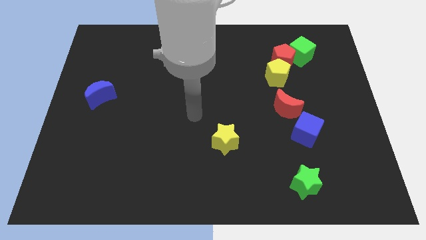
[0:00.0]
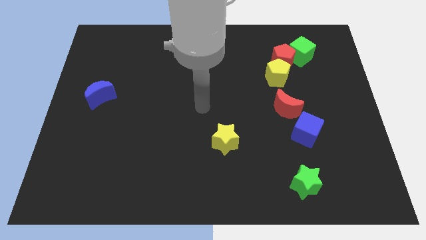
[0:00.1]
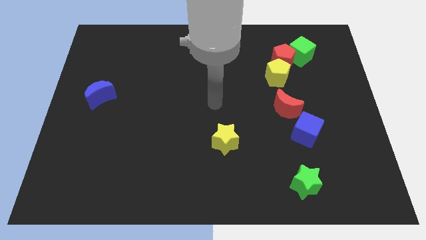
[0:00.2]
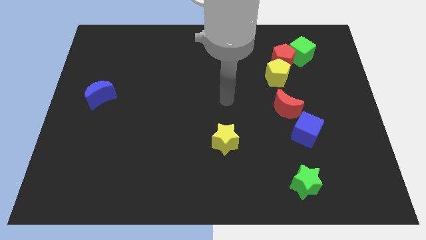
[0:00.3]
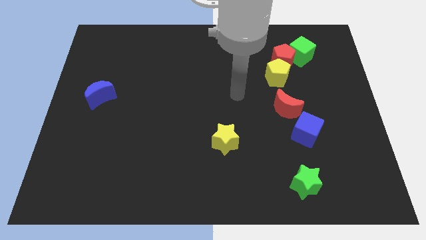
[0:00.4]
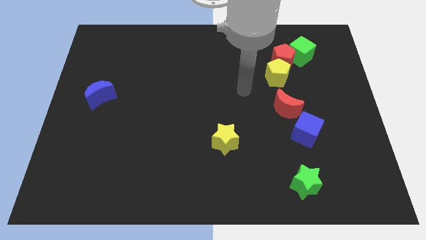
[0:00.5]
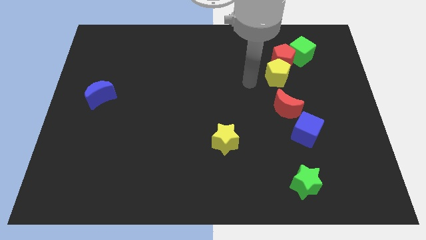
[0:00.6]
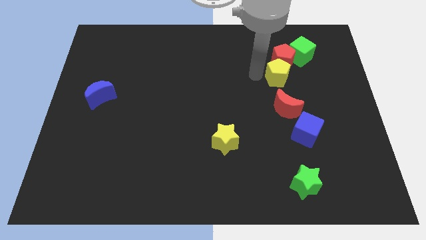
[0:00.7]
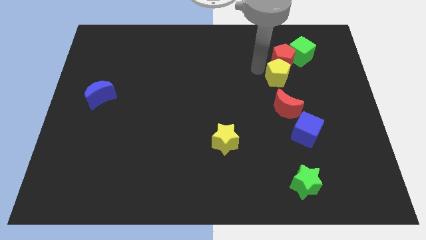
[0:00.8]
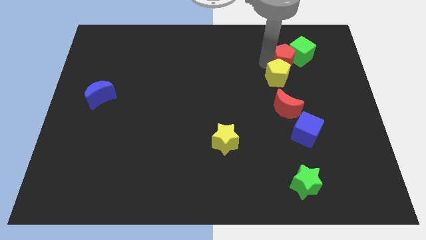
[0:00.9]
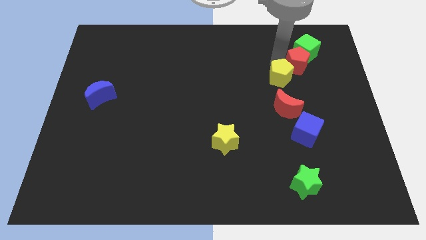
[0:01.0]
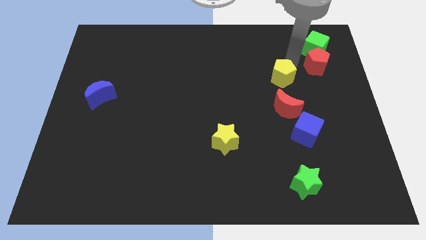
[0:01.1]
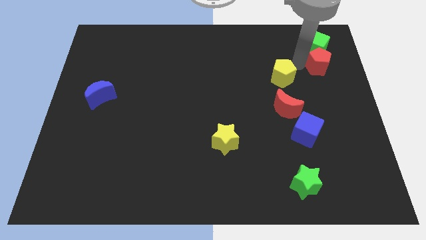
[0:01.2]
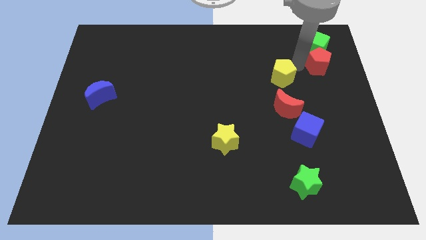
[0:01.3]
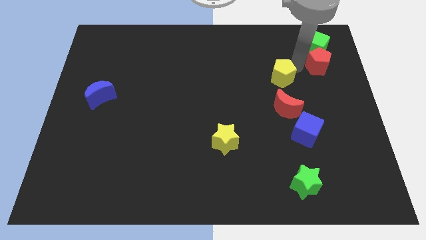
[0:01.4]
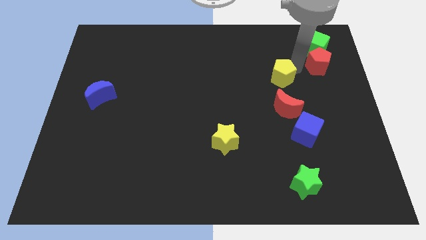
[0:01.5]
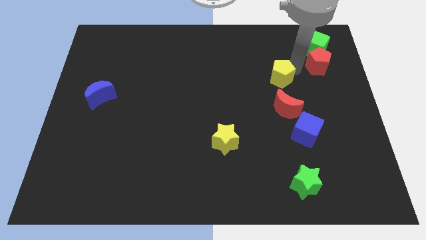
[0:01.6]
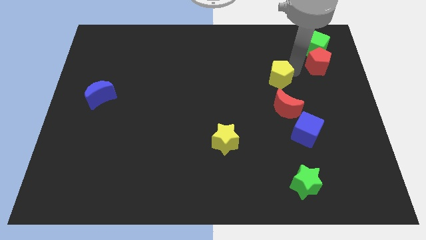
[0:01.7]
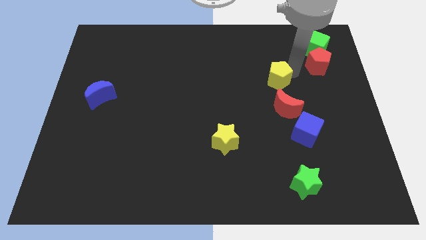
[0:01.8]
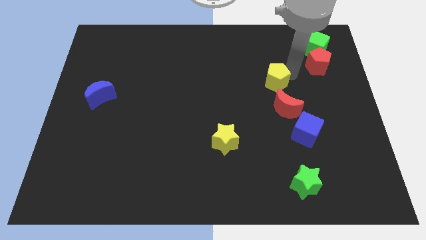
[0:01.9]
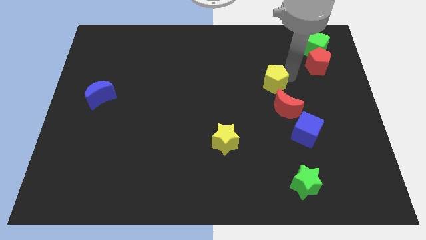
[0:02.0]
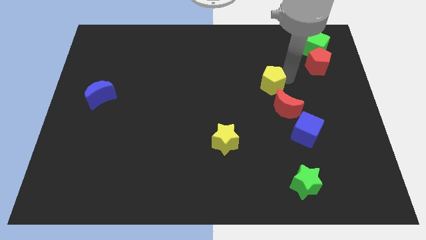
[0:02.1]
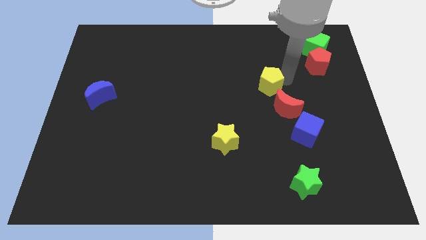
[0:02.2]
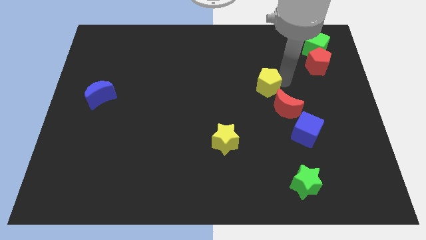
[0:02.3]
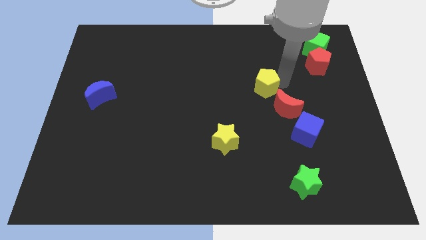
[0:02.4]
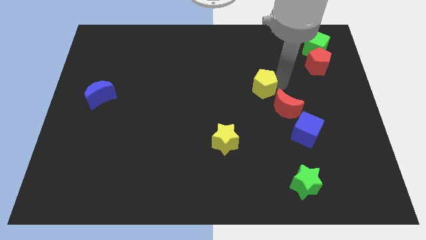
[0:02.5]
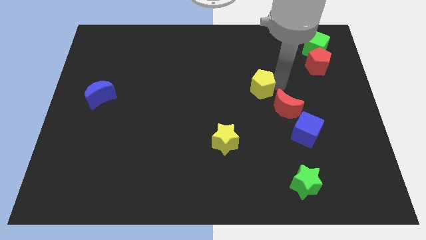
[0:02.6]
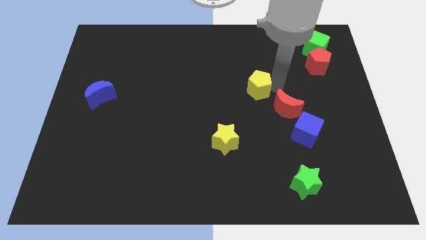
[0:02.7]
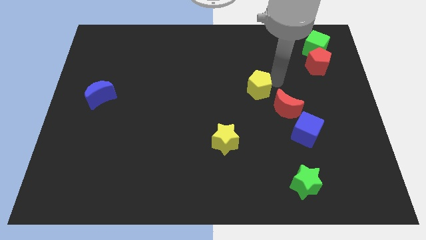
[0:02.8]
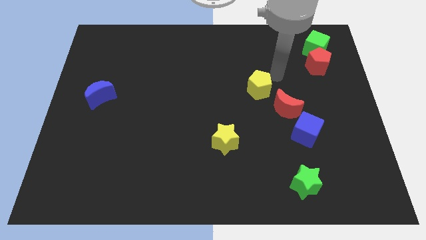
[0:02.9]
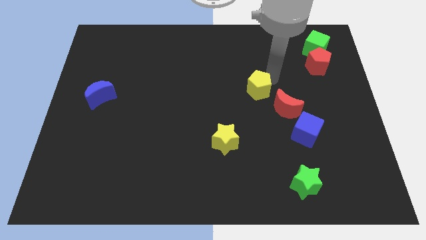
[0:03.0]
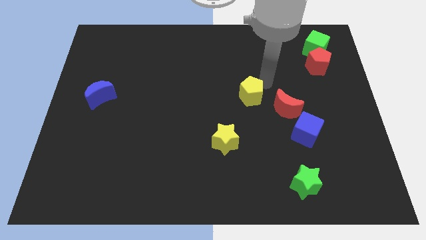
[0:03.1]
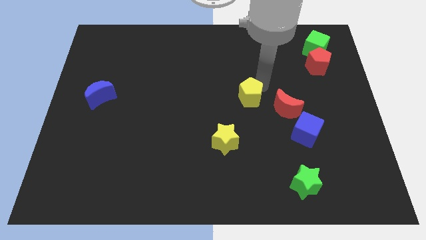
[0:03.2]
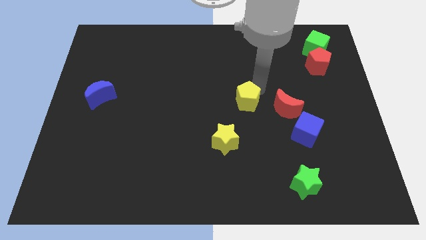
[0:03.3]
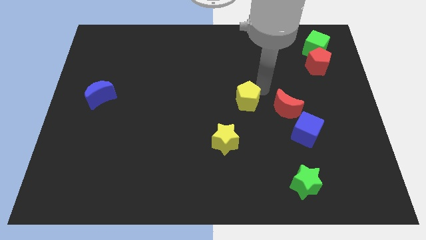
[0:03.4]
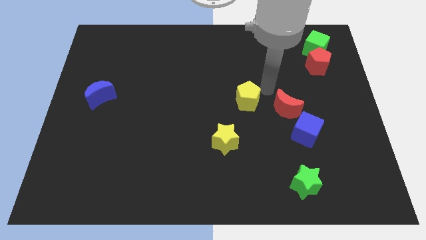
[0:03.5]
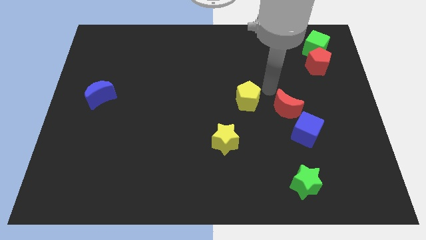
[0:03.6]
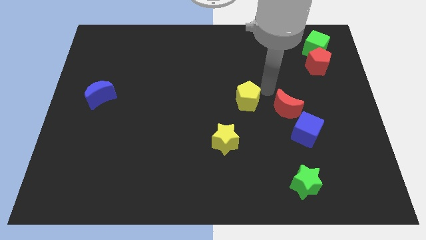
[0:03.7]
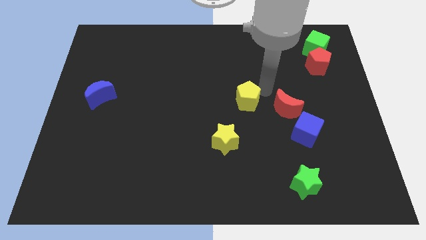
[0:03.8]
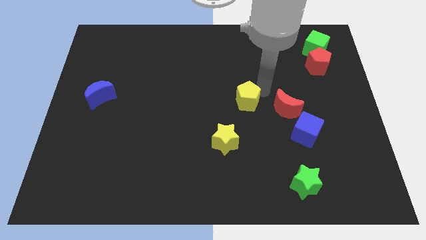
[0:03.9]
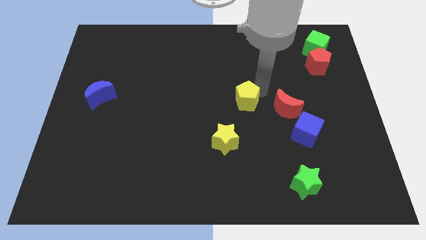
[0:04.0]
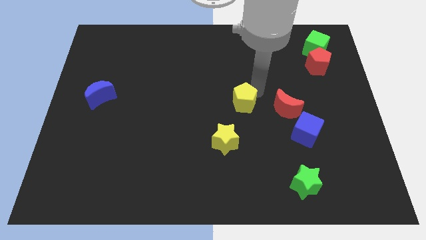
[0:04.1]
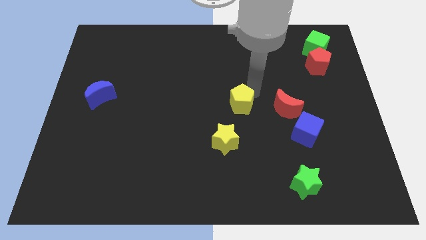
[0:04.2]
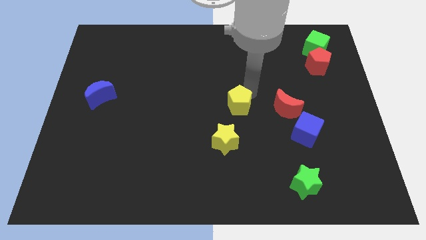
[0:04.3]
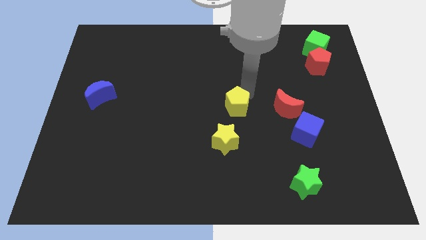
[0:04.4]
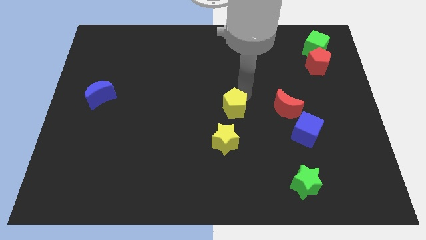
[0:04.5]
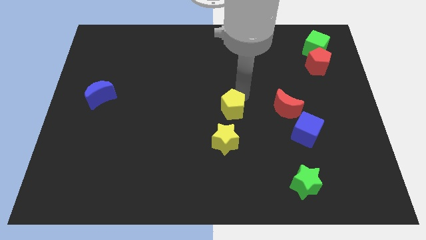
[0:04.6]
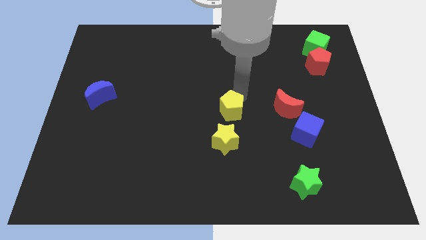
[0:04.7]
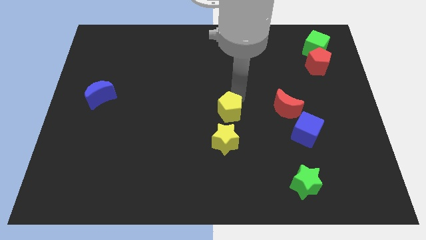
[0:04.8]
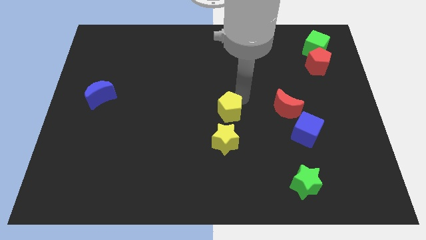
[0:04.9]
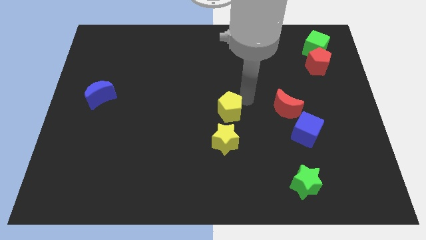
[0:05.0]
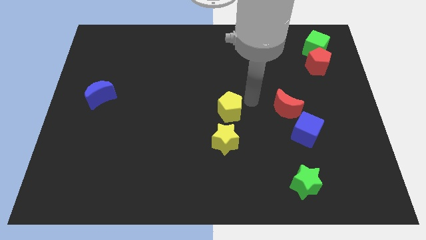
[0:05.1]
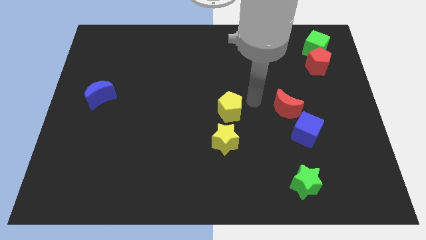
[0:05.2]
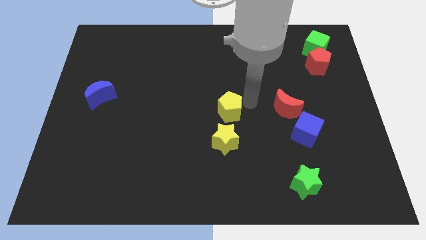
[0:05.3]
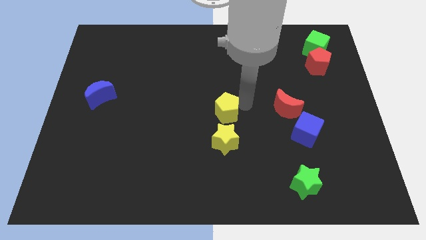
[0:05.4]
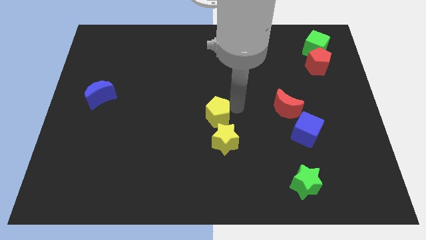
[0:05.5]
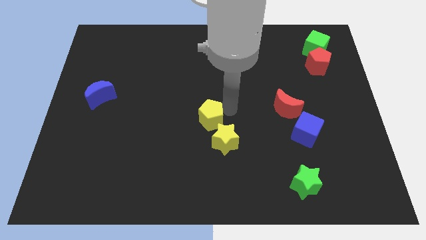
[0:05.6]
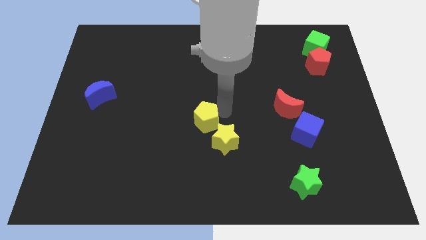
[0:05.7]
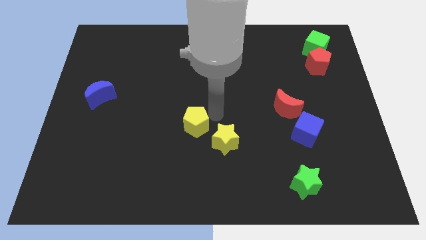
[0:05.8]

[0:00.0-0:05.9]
put the yellow pentagon to the left of the yellow star

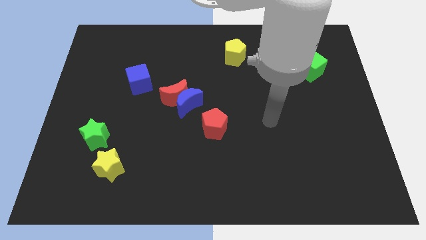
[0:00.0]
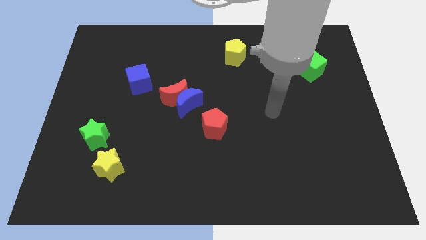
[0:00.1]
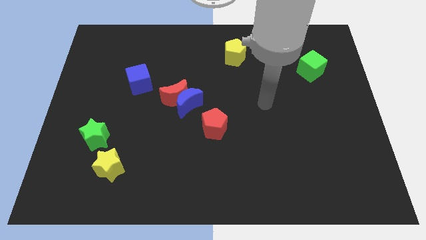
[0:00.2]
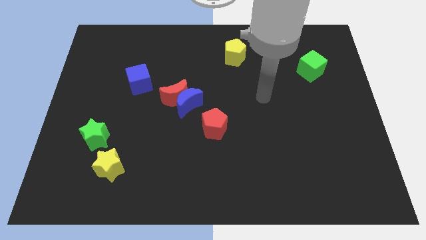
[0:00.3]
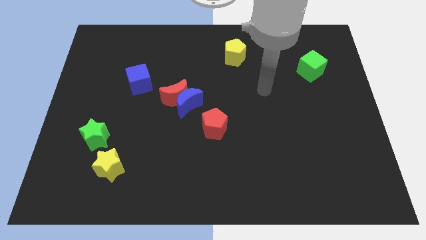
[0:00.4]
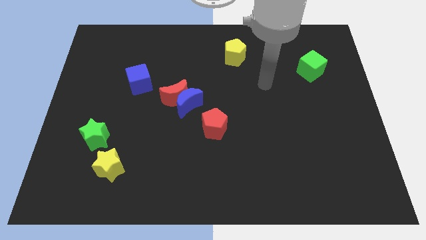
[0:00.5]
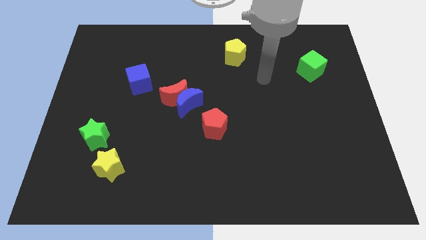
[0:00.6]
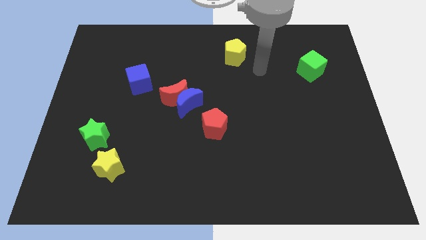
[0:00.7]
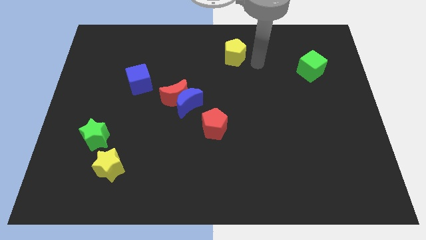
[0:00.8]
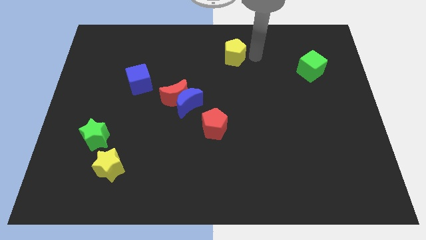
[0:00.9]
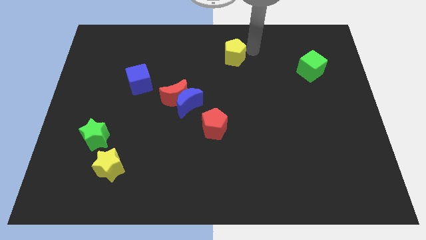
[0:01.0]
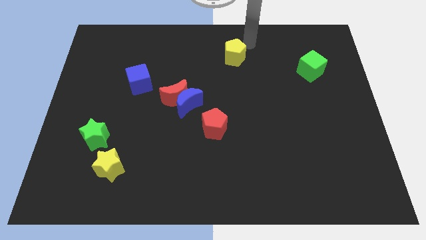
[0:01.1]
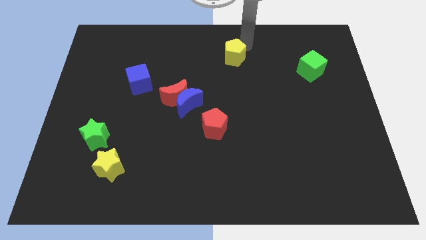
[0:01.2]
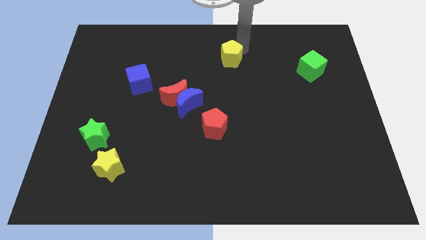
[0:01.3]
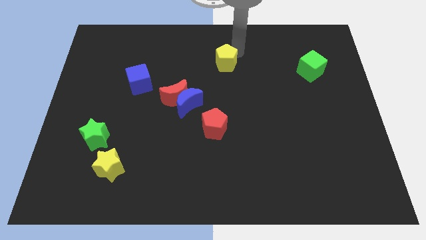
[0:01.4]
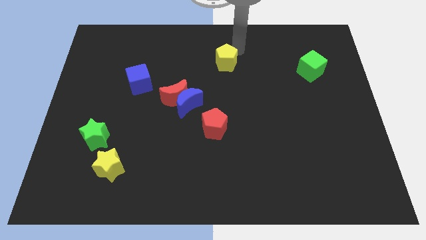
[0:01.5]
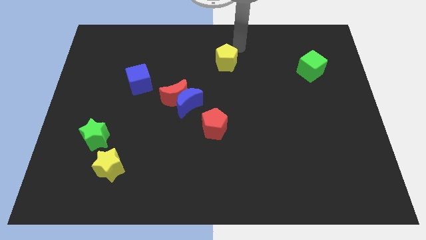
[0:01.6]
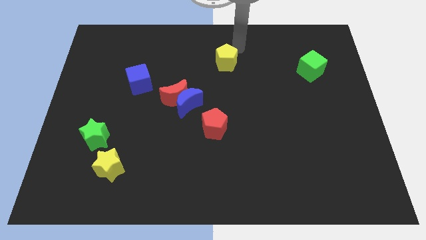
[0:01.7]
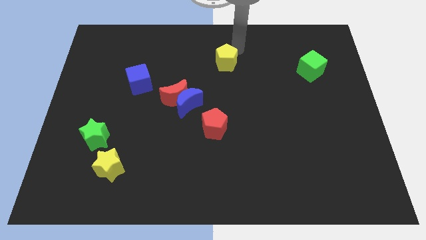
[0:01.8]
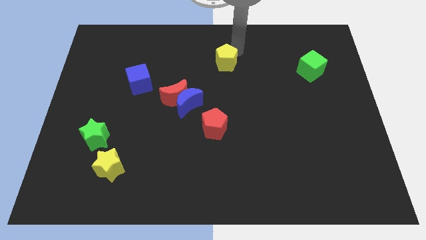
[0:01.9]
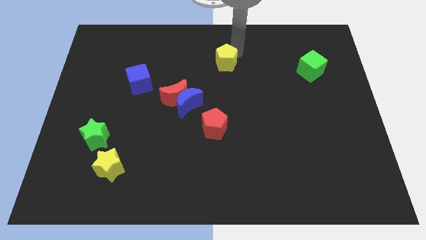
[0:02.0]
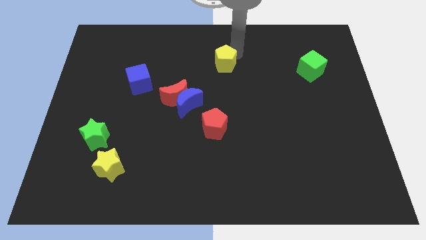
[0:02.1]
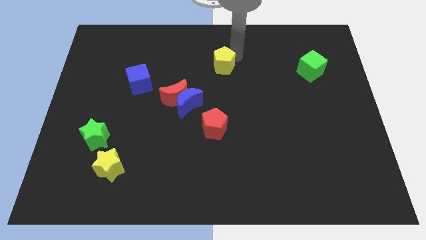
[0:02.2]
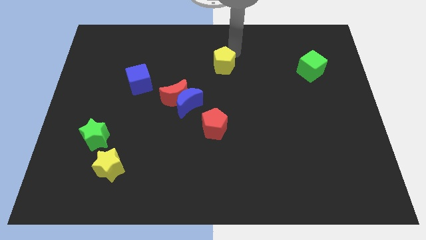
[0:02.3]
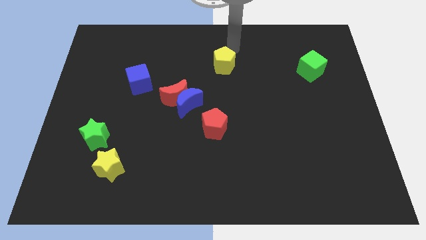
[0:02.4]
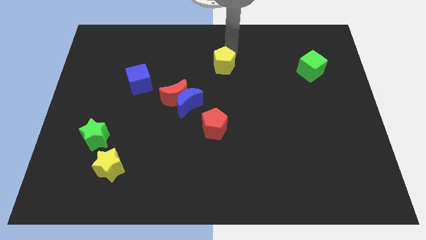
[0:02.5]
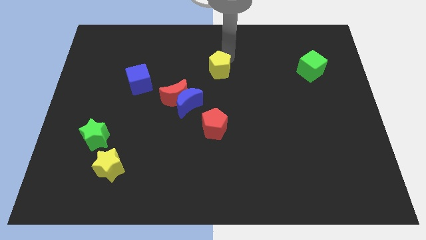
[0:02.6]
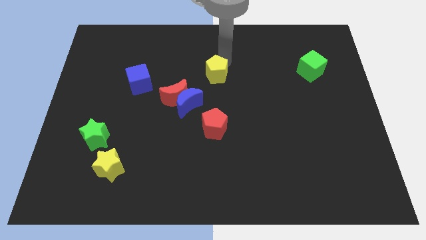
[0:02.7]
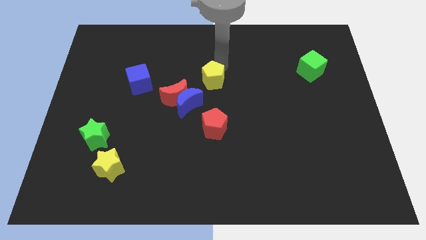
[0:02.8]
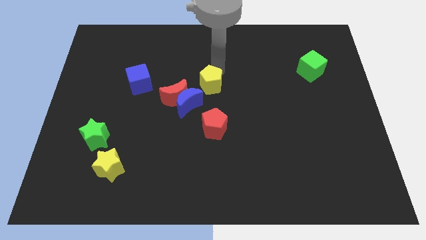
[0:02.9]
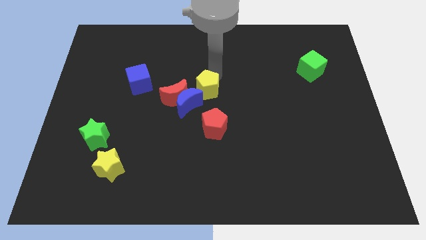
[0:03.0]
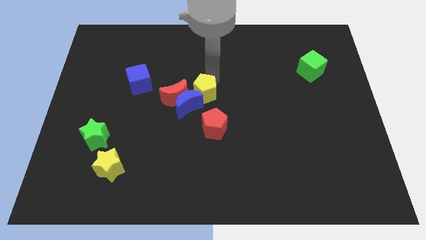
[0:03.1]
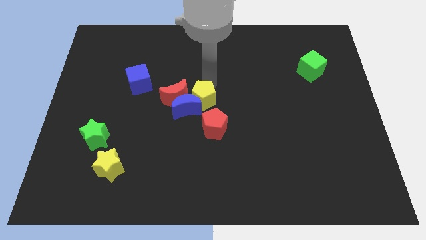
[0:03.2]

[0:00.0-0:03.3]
move the yellow pentagon to the bottom right side of the red moon
